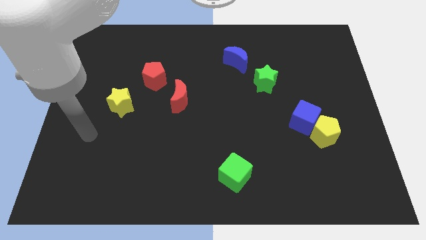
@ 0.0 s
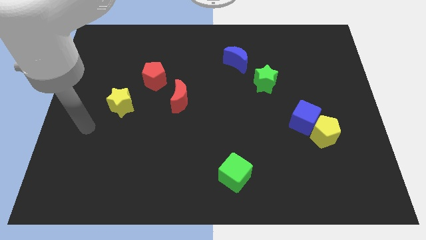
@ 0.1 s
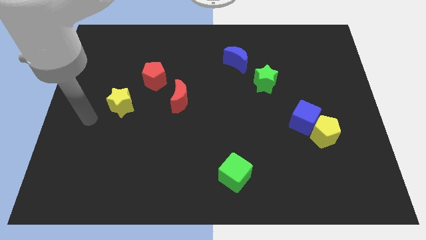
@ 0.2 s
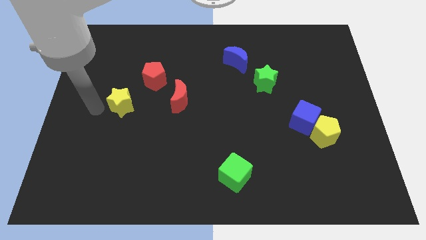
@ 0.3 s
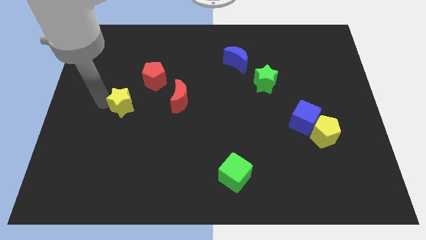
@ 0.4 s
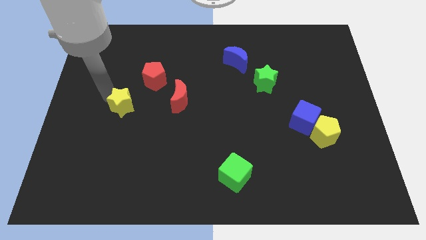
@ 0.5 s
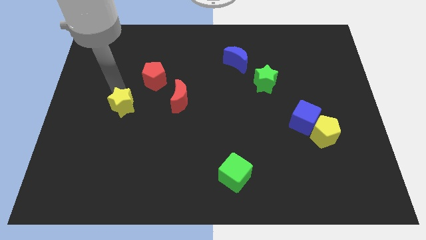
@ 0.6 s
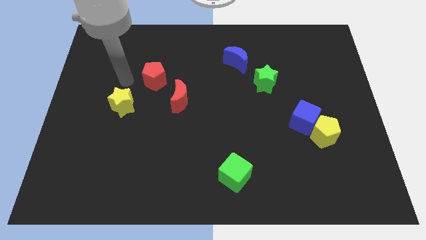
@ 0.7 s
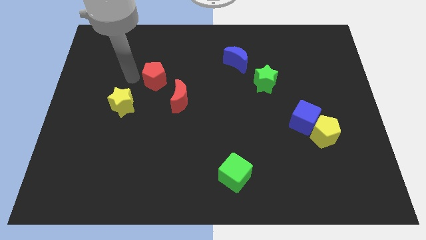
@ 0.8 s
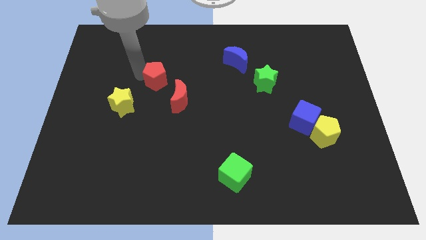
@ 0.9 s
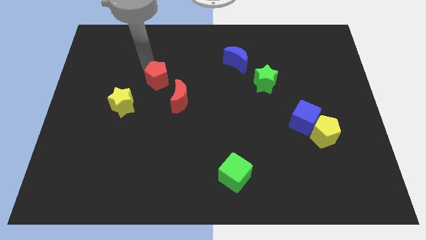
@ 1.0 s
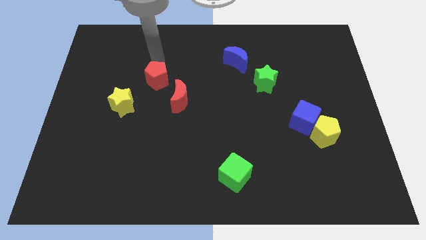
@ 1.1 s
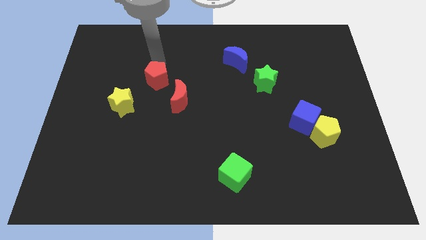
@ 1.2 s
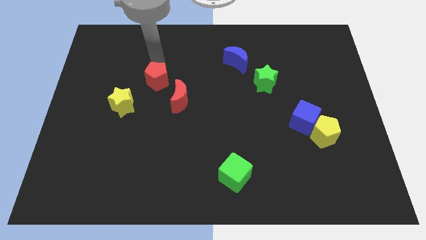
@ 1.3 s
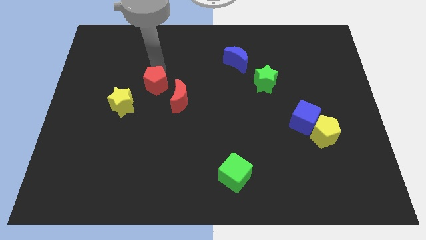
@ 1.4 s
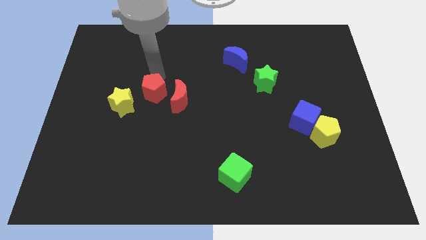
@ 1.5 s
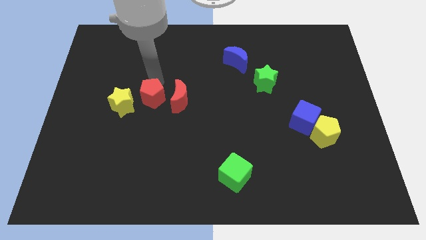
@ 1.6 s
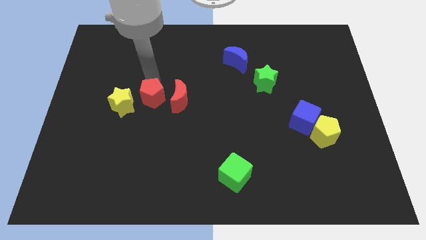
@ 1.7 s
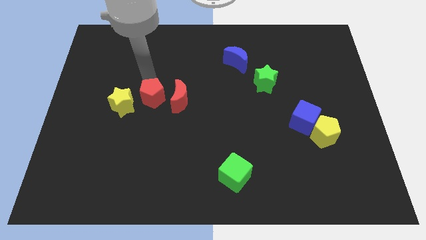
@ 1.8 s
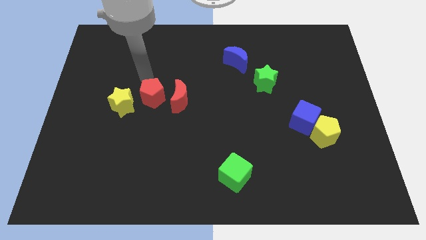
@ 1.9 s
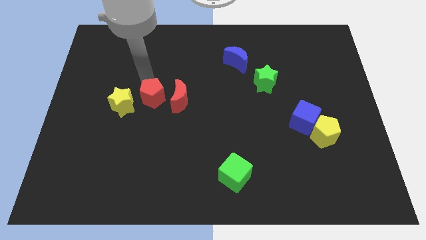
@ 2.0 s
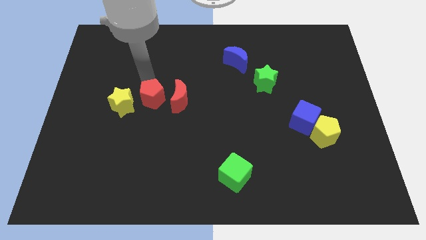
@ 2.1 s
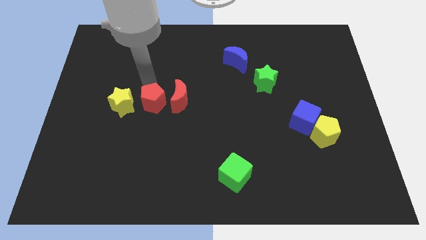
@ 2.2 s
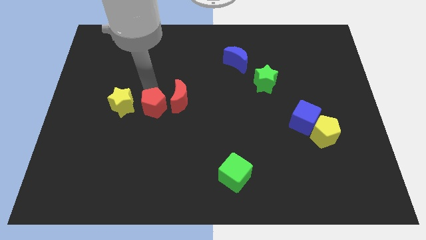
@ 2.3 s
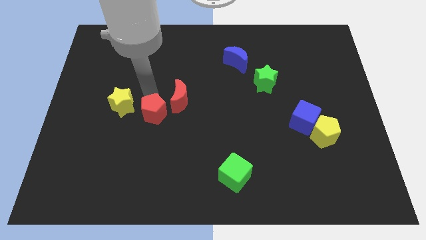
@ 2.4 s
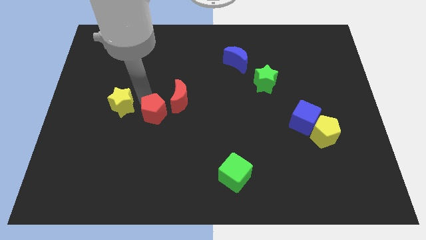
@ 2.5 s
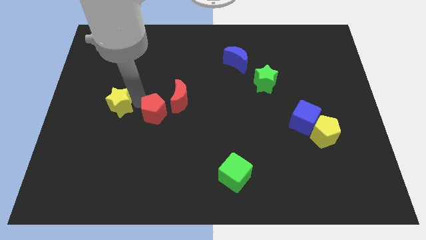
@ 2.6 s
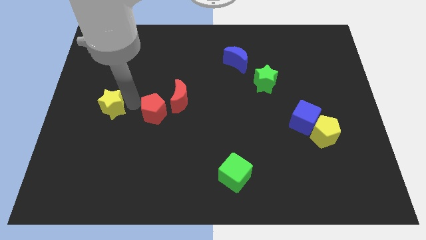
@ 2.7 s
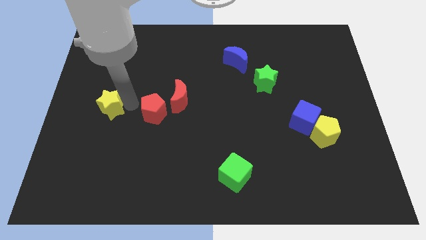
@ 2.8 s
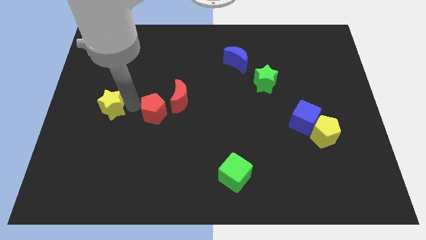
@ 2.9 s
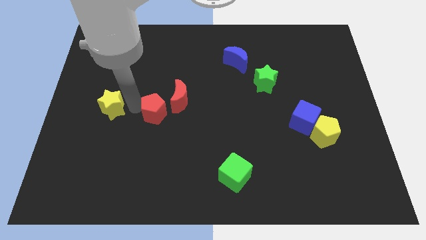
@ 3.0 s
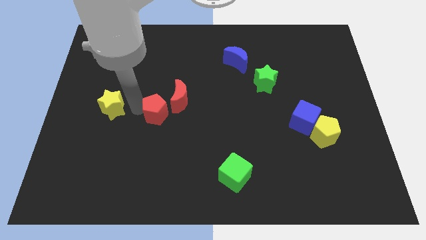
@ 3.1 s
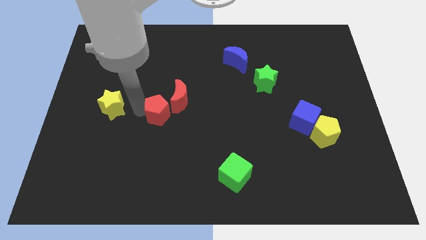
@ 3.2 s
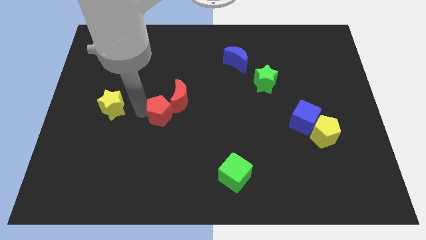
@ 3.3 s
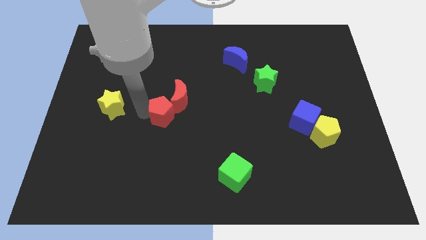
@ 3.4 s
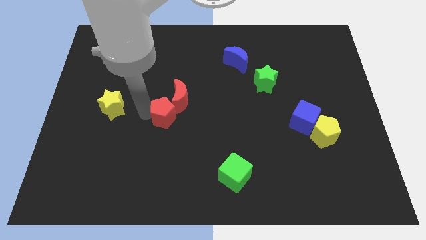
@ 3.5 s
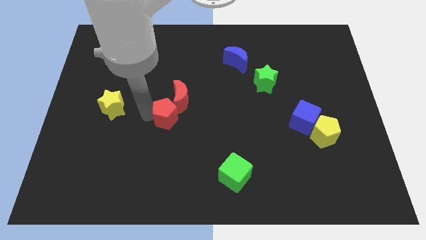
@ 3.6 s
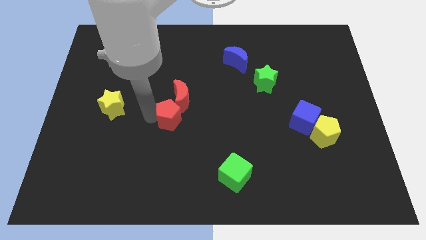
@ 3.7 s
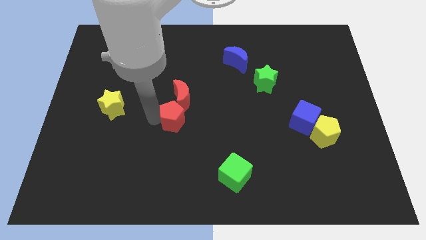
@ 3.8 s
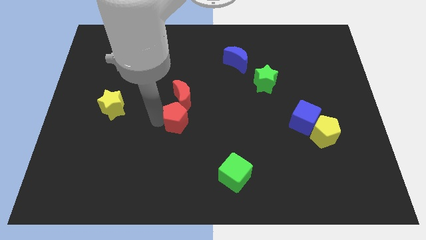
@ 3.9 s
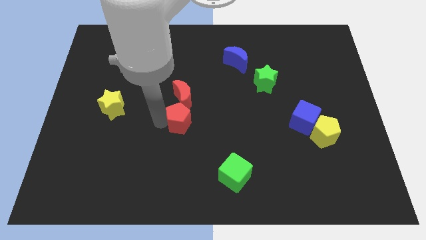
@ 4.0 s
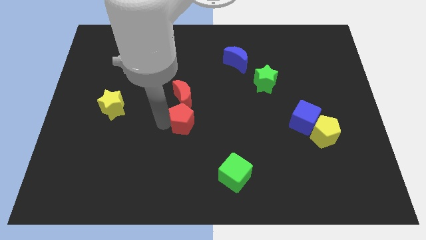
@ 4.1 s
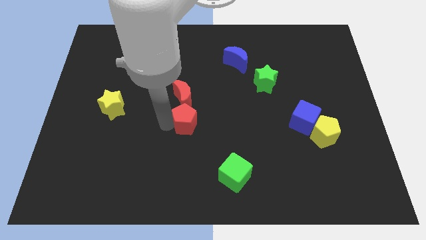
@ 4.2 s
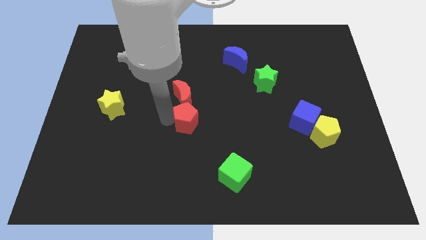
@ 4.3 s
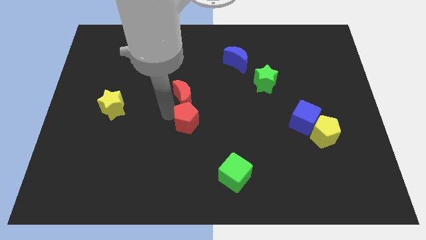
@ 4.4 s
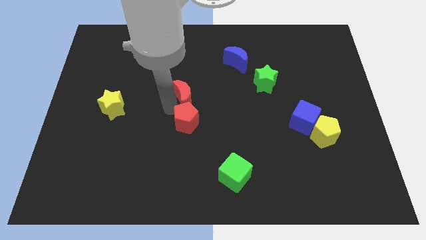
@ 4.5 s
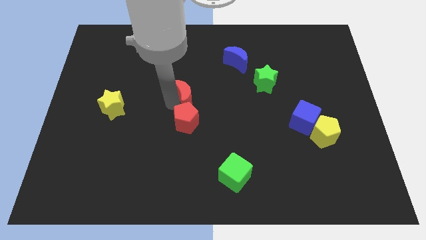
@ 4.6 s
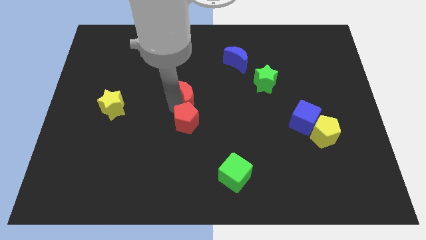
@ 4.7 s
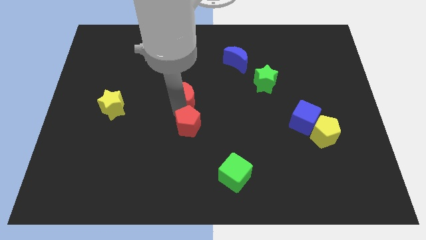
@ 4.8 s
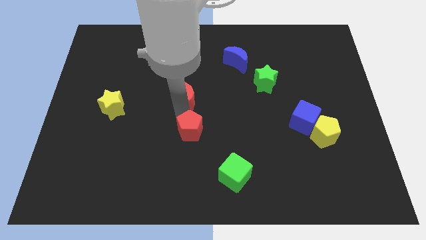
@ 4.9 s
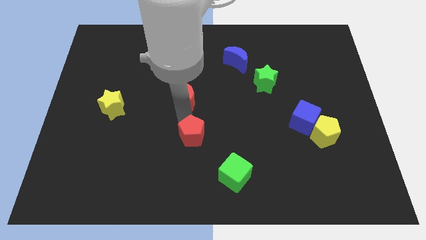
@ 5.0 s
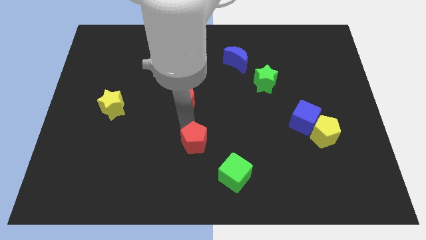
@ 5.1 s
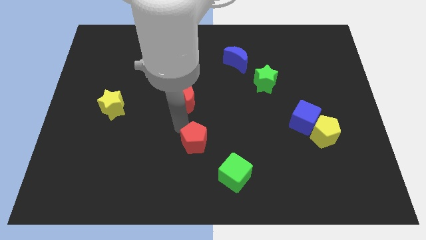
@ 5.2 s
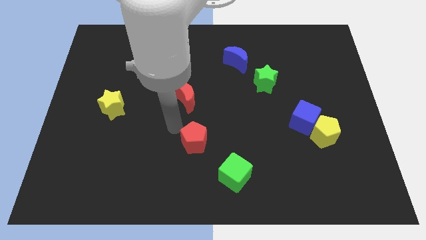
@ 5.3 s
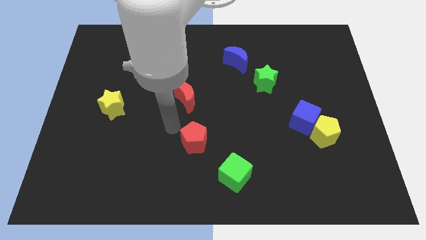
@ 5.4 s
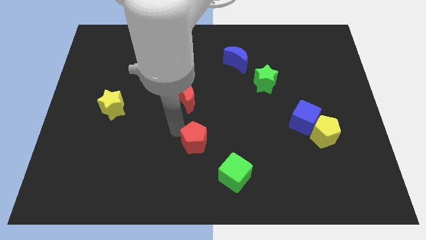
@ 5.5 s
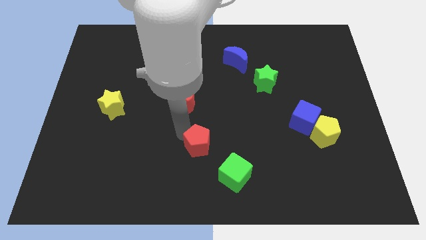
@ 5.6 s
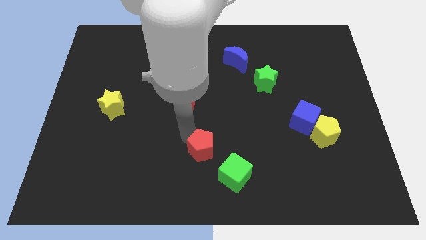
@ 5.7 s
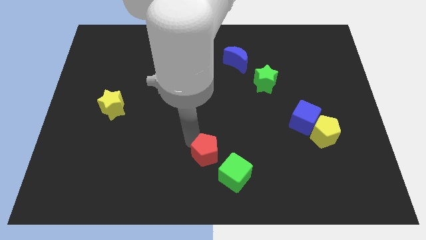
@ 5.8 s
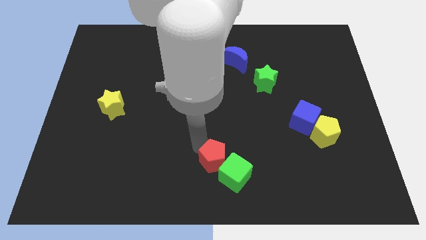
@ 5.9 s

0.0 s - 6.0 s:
move the red pentagon next to the green cube

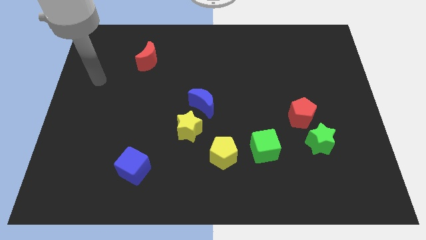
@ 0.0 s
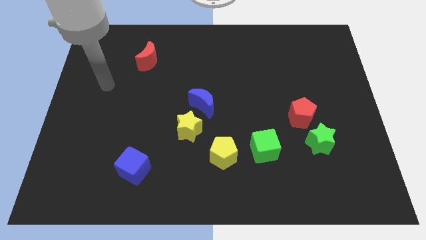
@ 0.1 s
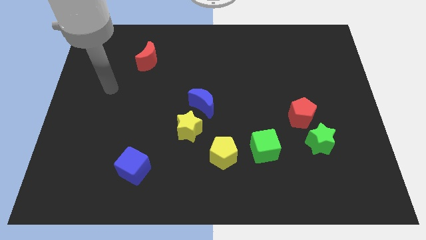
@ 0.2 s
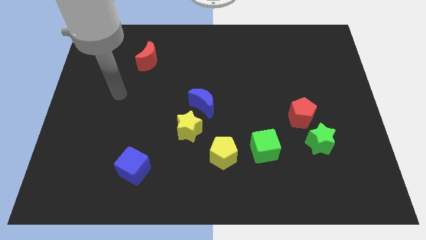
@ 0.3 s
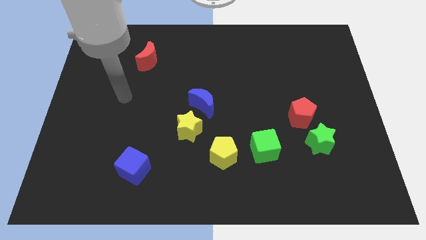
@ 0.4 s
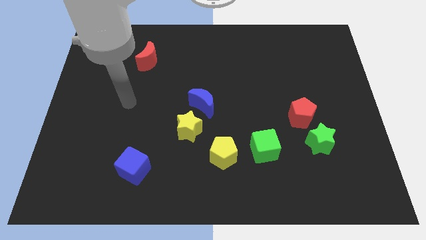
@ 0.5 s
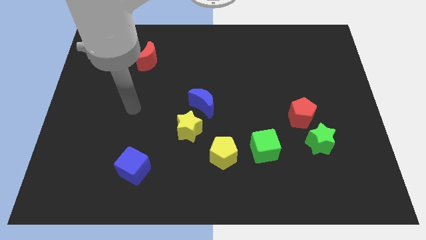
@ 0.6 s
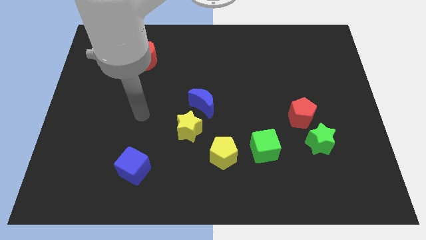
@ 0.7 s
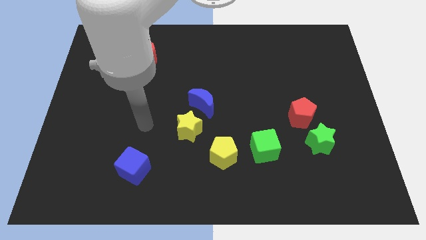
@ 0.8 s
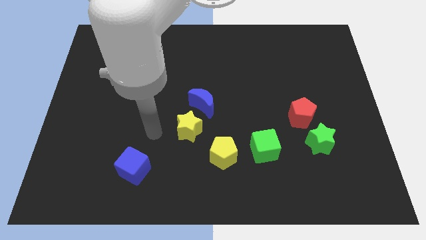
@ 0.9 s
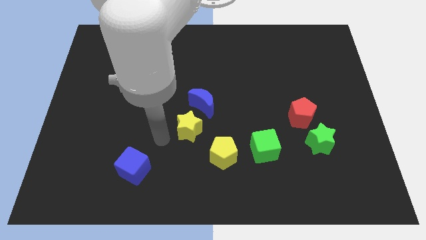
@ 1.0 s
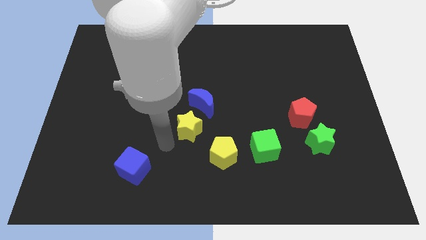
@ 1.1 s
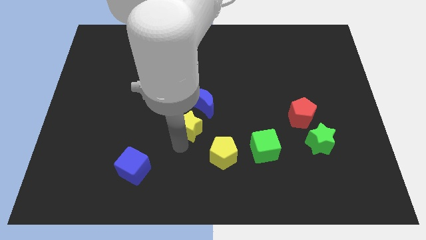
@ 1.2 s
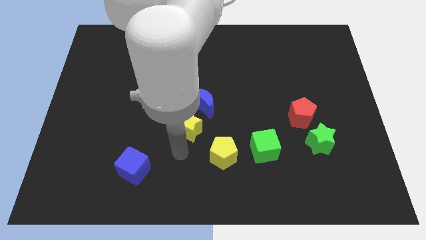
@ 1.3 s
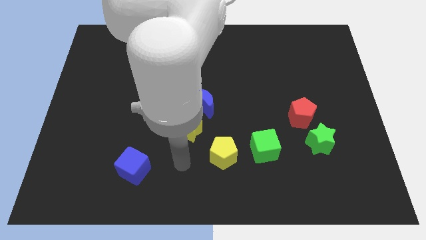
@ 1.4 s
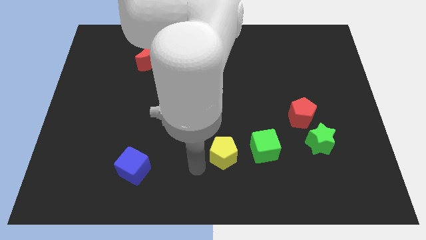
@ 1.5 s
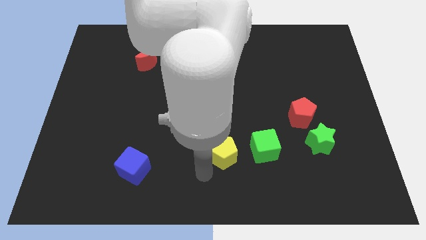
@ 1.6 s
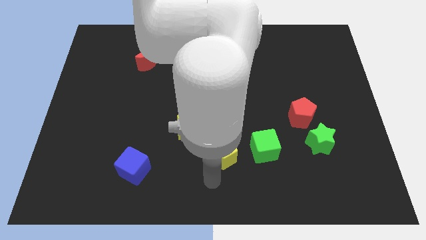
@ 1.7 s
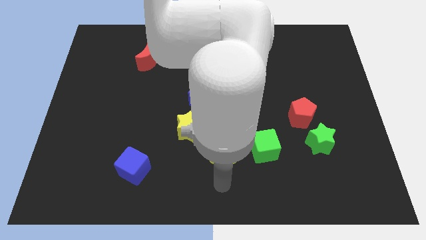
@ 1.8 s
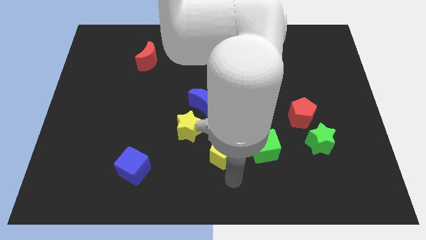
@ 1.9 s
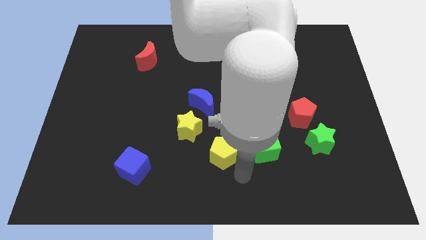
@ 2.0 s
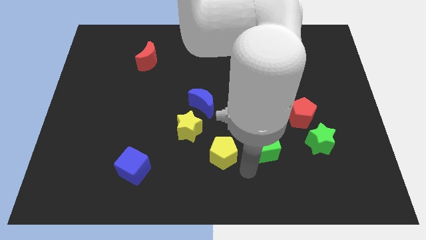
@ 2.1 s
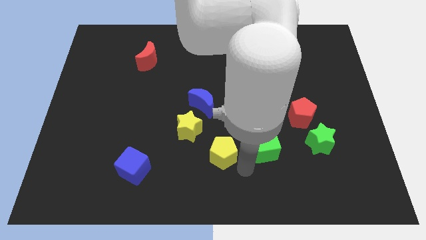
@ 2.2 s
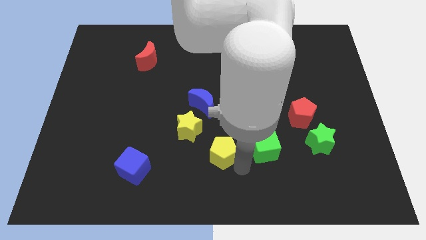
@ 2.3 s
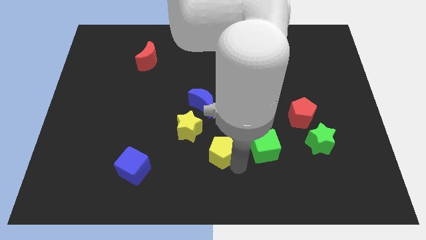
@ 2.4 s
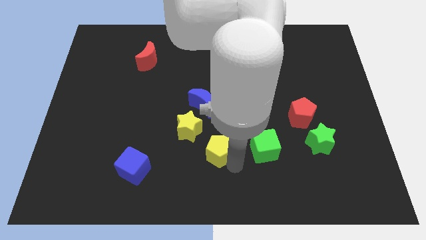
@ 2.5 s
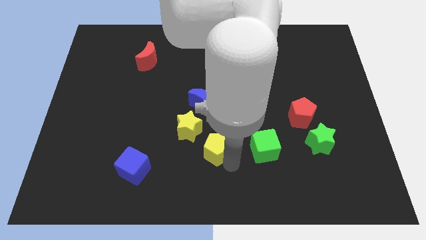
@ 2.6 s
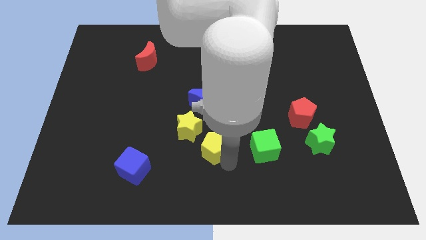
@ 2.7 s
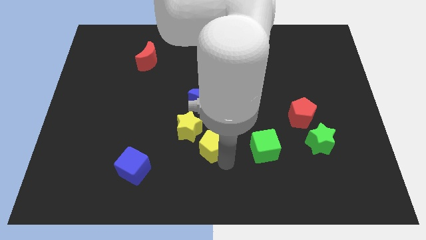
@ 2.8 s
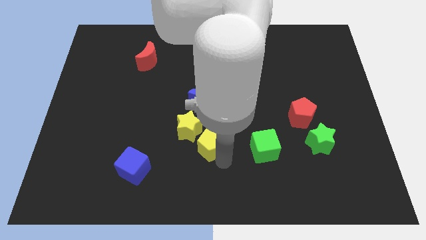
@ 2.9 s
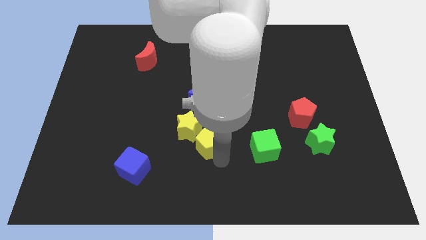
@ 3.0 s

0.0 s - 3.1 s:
put the yellow pentagon to the yellow star
